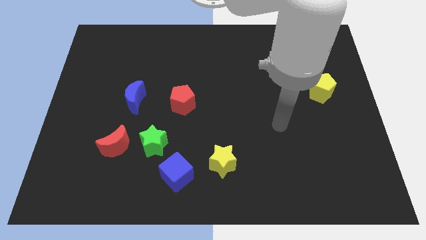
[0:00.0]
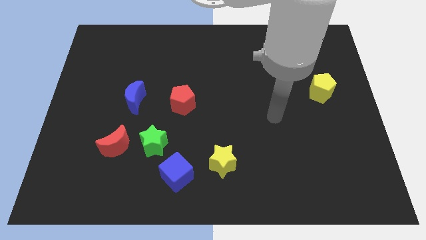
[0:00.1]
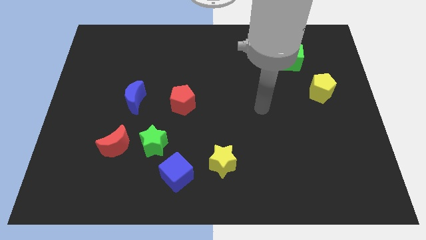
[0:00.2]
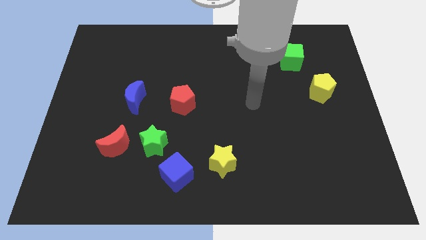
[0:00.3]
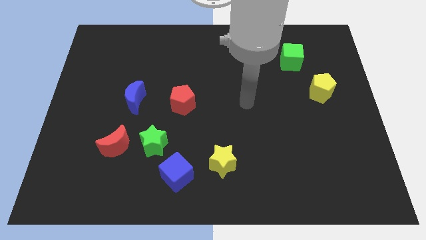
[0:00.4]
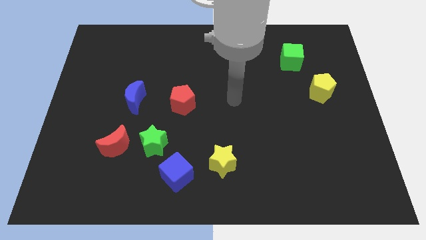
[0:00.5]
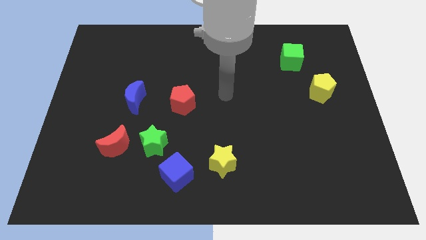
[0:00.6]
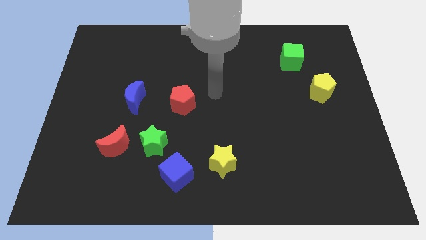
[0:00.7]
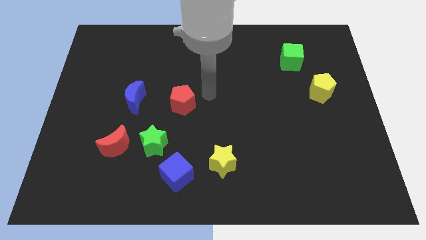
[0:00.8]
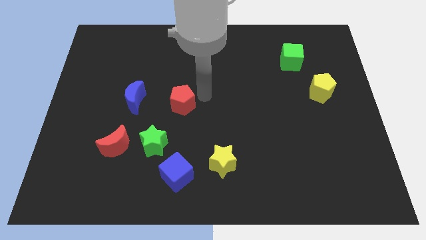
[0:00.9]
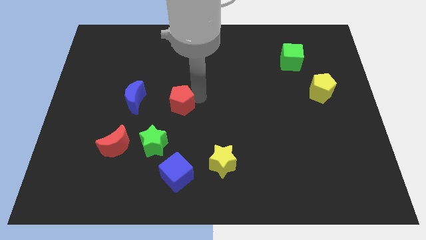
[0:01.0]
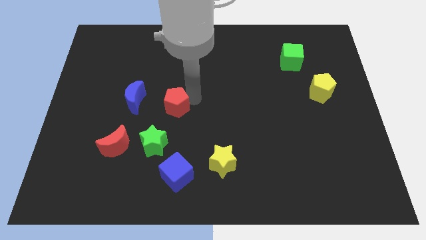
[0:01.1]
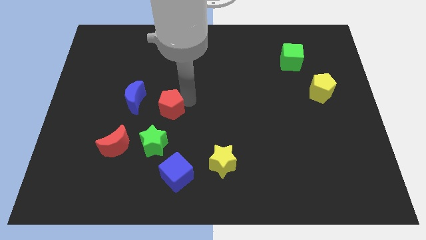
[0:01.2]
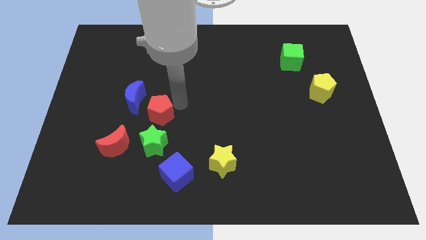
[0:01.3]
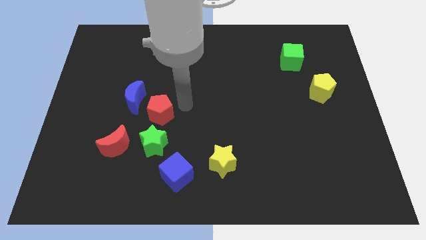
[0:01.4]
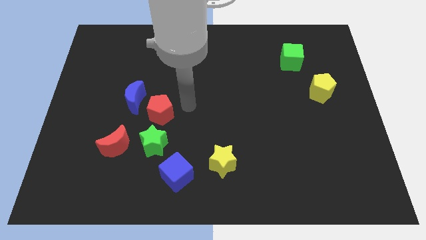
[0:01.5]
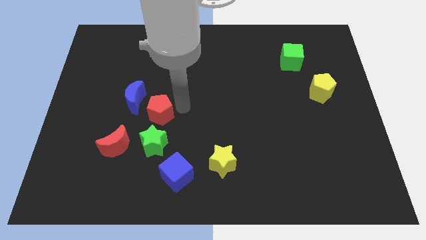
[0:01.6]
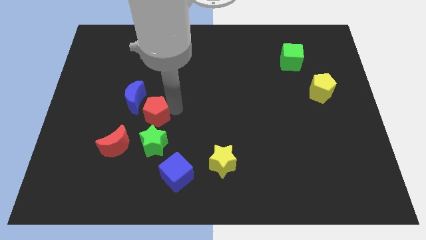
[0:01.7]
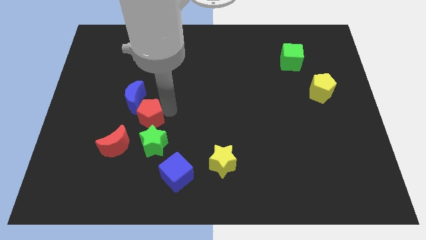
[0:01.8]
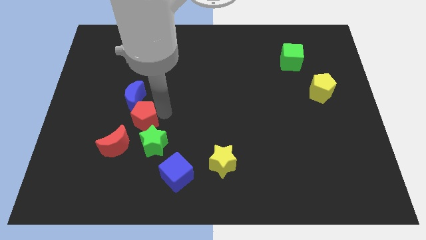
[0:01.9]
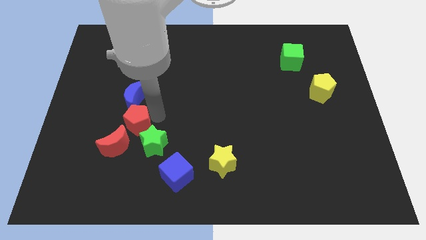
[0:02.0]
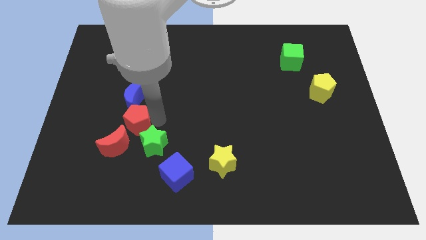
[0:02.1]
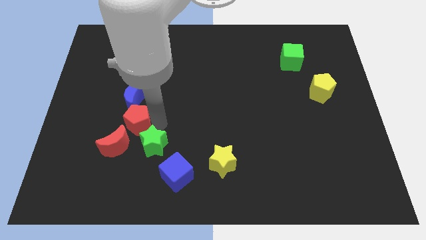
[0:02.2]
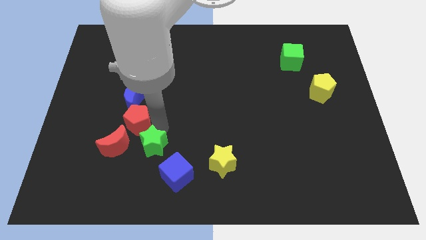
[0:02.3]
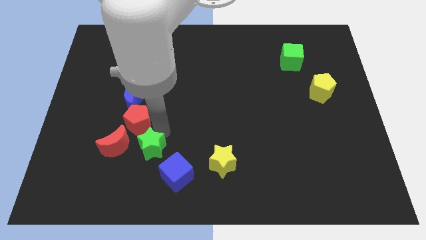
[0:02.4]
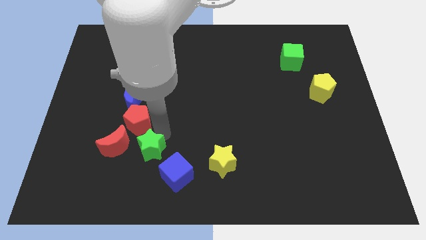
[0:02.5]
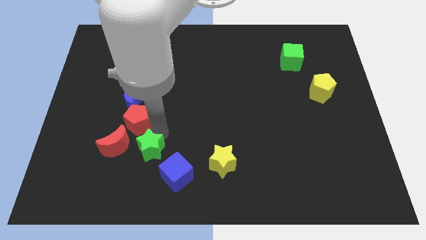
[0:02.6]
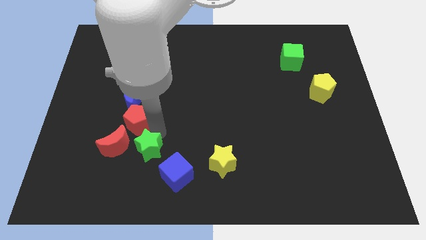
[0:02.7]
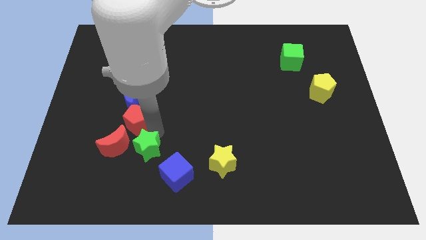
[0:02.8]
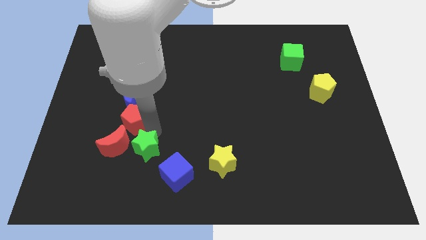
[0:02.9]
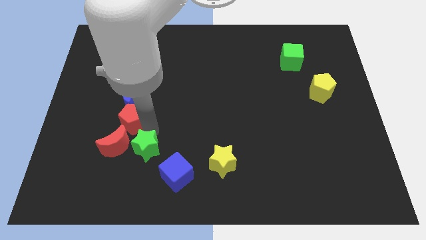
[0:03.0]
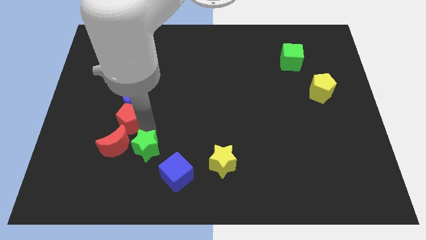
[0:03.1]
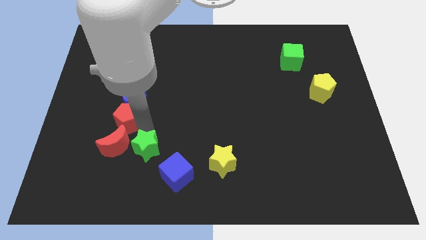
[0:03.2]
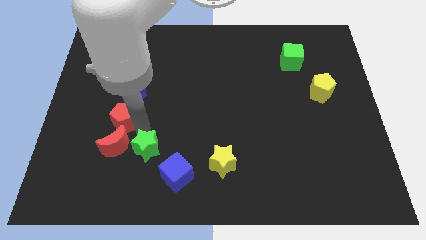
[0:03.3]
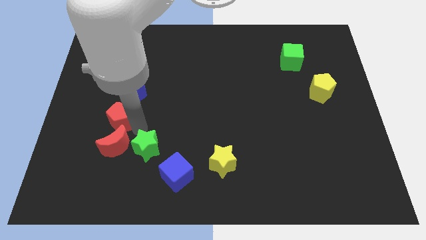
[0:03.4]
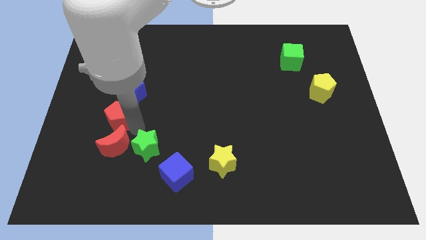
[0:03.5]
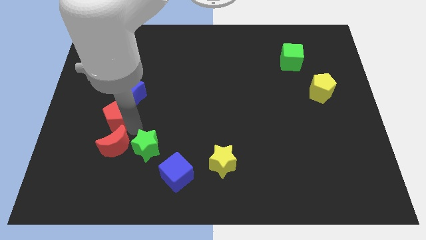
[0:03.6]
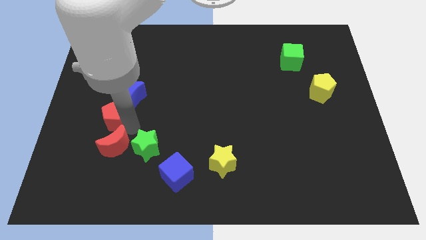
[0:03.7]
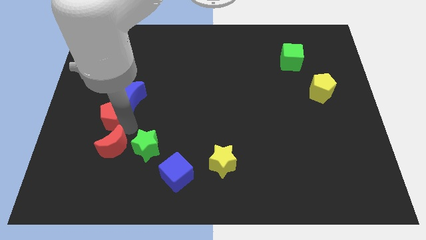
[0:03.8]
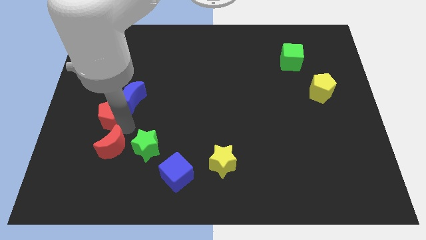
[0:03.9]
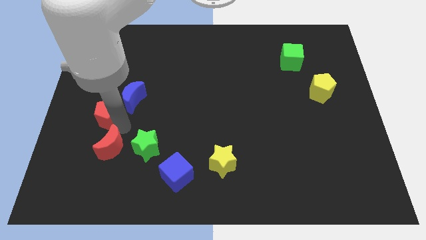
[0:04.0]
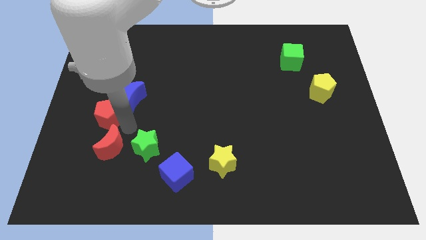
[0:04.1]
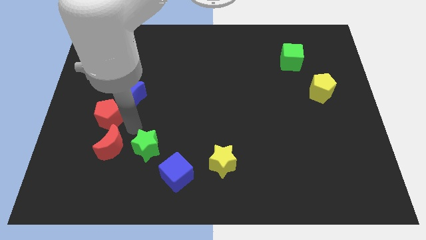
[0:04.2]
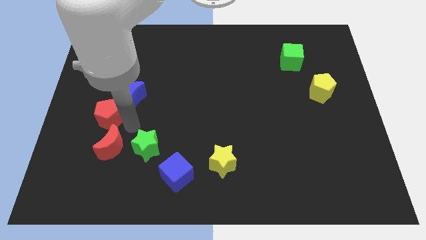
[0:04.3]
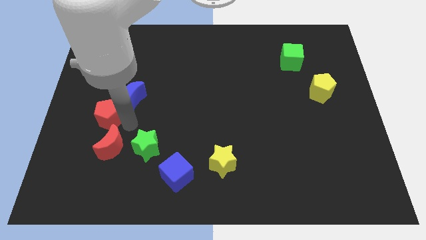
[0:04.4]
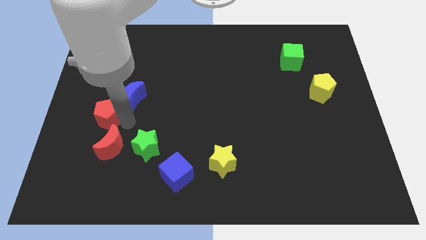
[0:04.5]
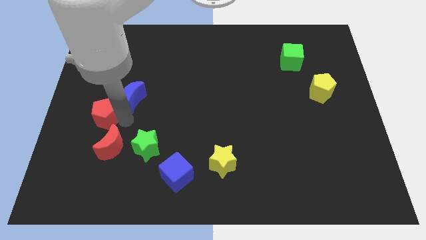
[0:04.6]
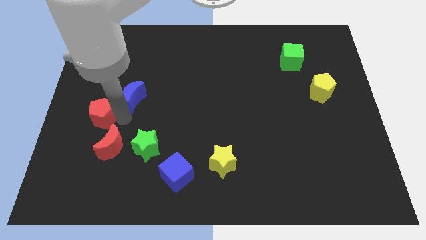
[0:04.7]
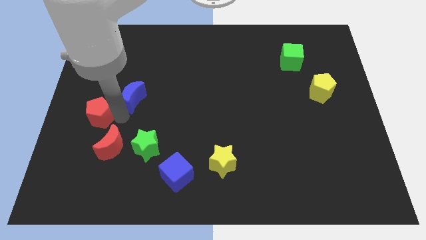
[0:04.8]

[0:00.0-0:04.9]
push the red pentagon to the left side of the board

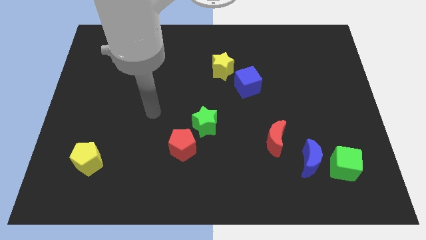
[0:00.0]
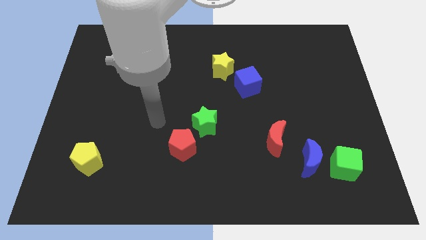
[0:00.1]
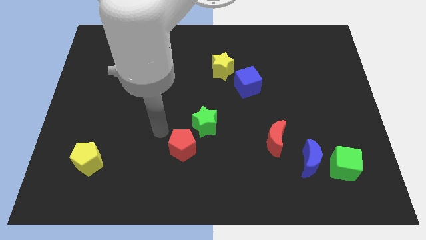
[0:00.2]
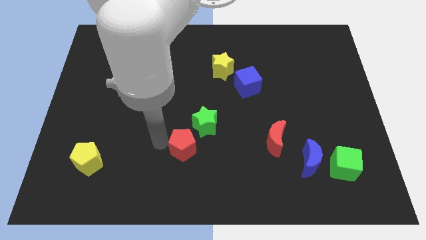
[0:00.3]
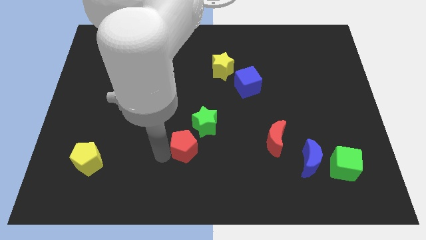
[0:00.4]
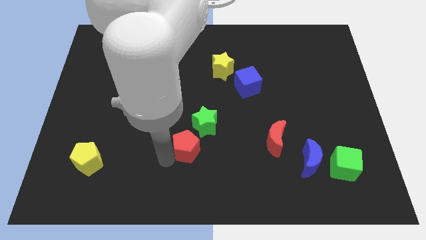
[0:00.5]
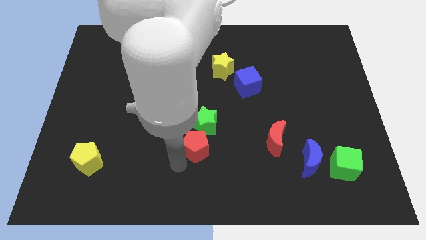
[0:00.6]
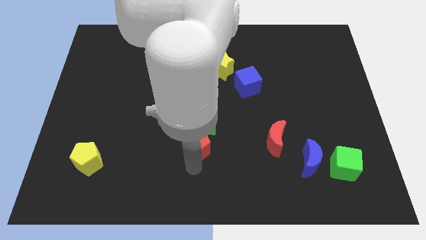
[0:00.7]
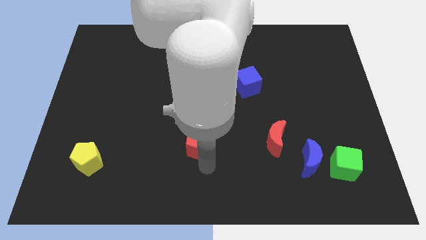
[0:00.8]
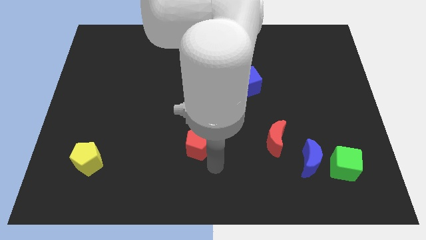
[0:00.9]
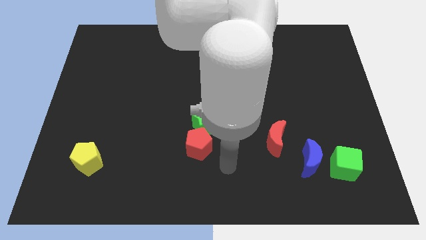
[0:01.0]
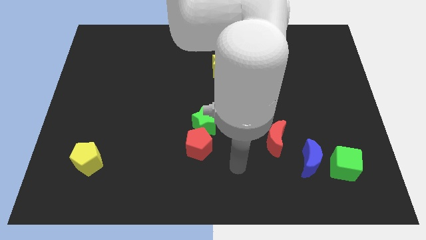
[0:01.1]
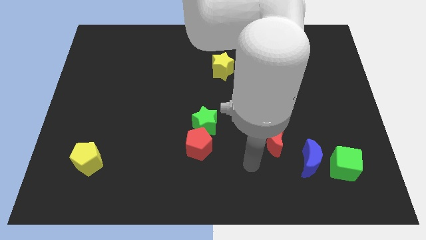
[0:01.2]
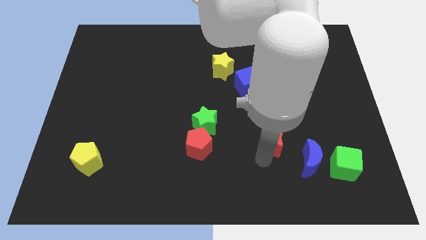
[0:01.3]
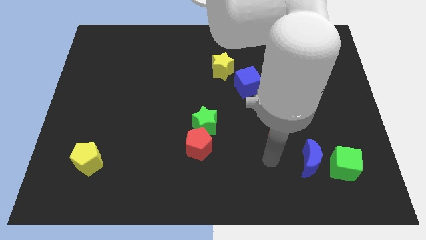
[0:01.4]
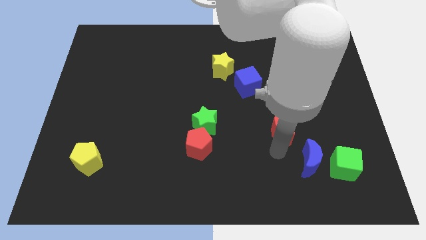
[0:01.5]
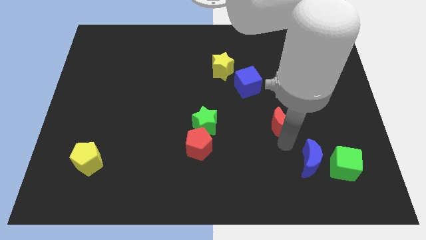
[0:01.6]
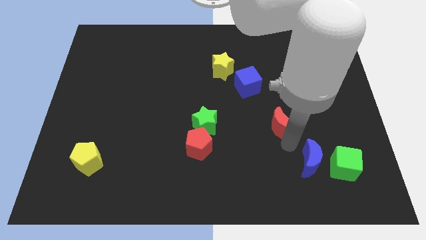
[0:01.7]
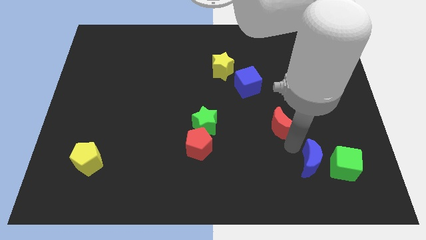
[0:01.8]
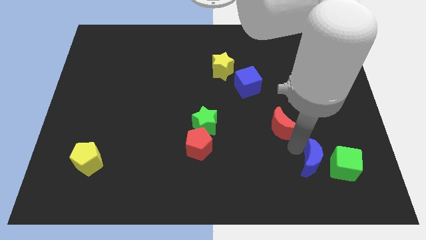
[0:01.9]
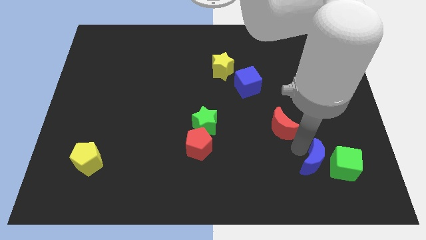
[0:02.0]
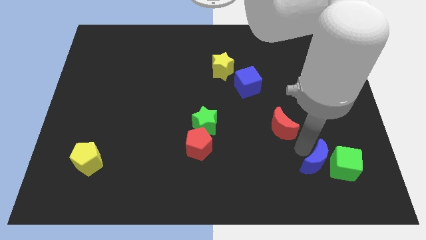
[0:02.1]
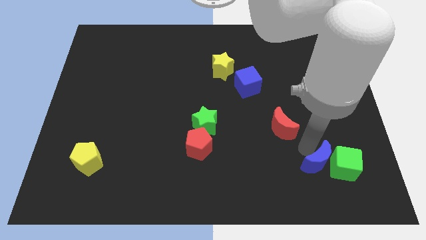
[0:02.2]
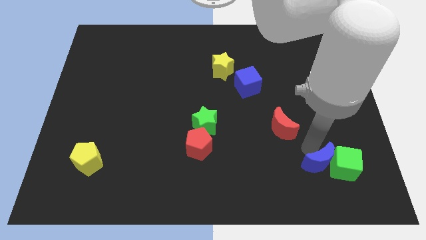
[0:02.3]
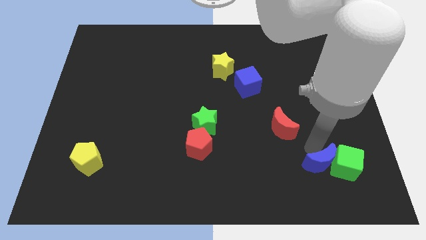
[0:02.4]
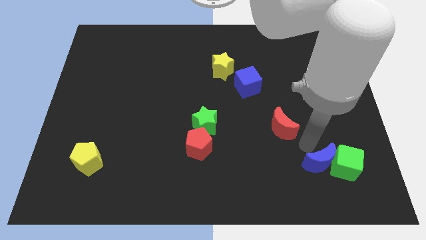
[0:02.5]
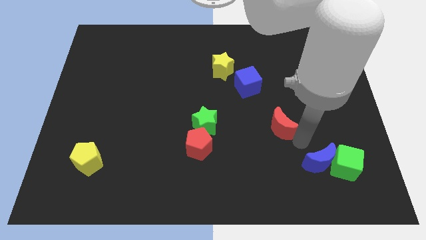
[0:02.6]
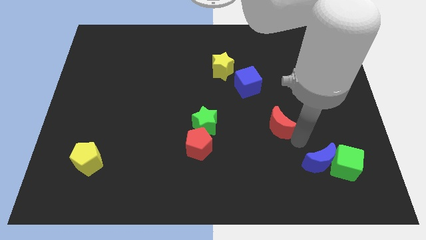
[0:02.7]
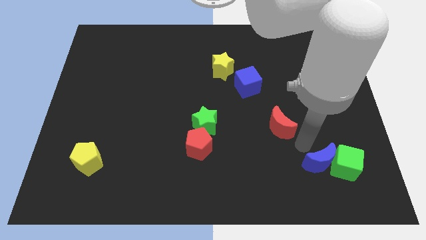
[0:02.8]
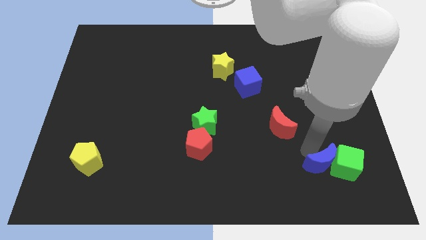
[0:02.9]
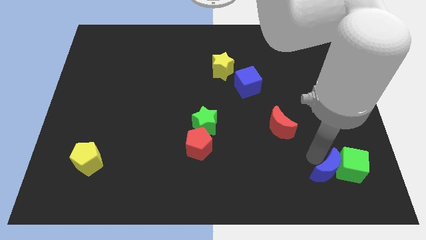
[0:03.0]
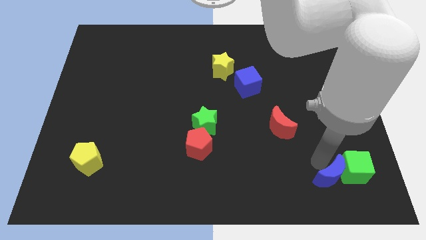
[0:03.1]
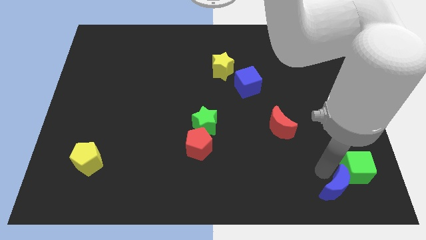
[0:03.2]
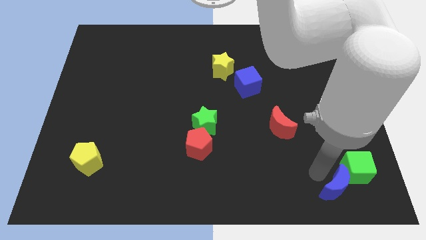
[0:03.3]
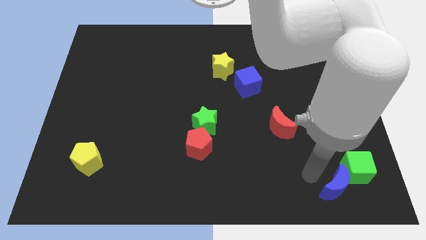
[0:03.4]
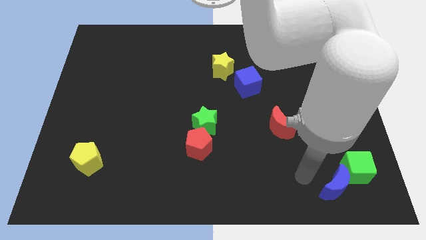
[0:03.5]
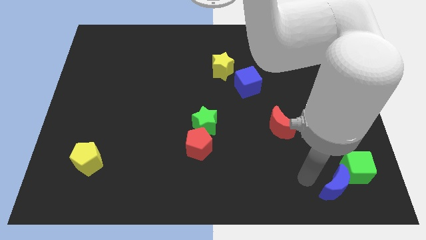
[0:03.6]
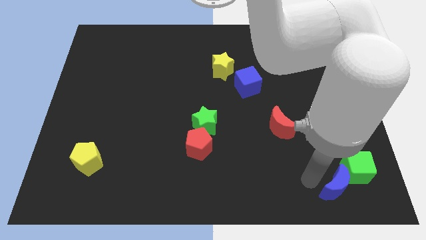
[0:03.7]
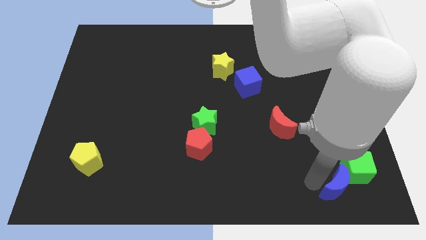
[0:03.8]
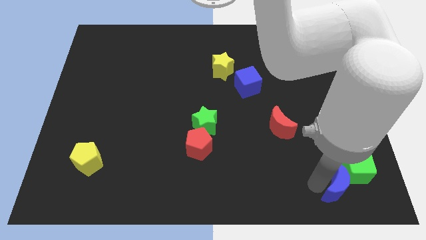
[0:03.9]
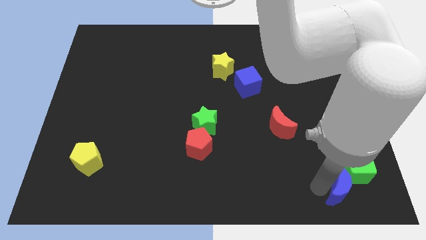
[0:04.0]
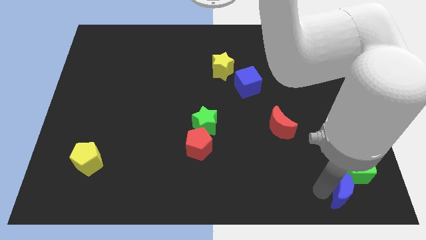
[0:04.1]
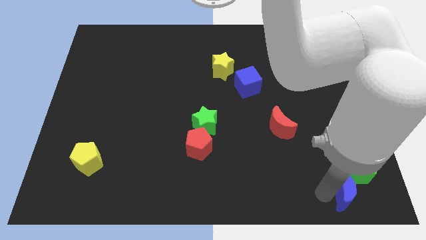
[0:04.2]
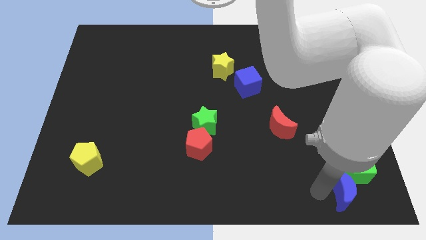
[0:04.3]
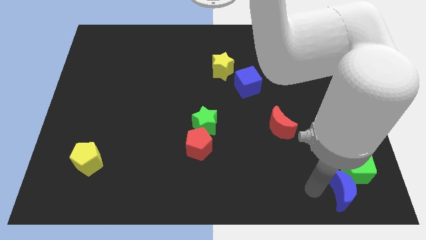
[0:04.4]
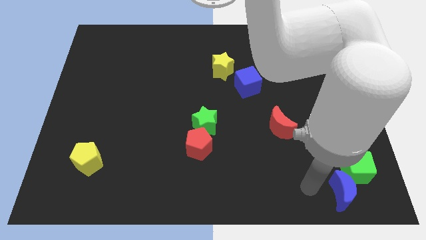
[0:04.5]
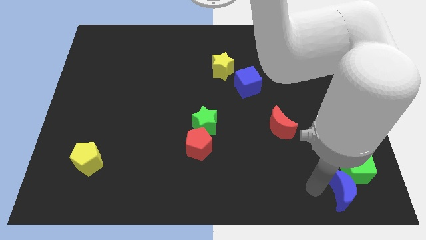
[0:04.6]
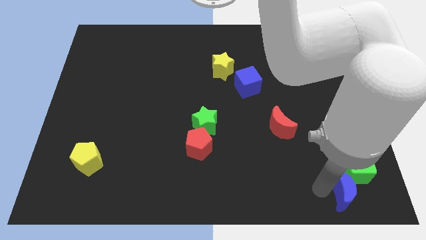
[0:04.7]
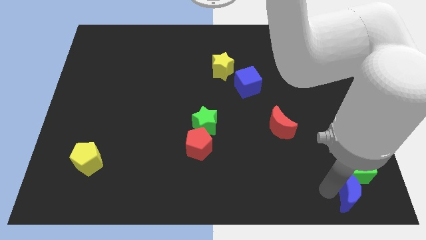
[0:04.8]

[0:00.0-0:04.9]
slide the blue moon to the bottom right corner
